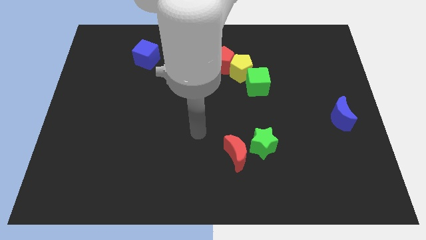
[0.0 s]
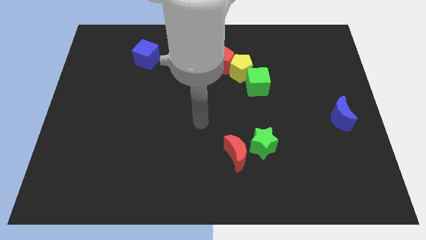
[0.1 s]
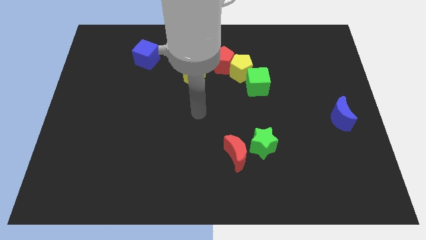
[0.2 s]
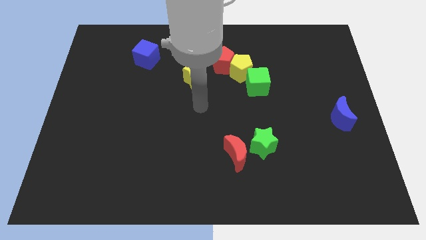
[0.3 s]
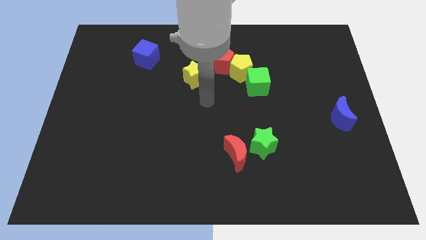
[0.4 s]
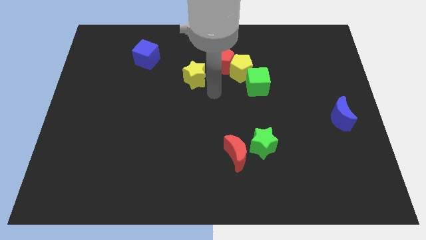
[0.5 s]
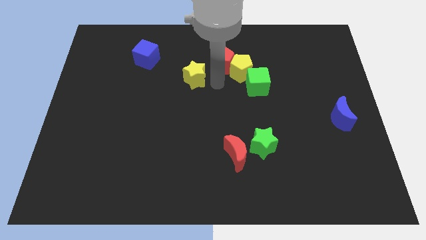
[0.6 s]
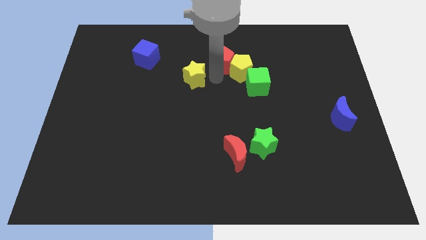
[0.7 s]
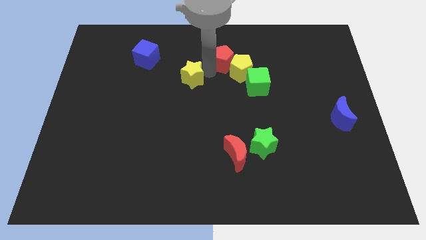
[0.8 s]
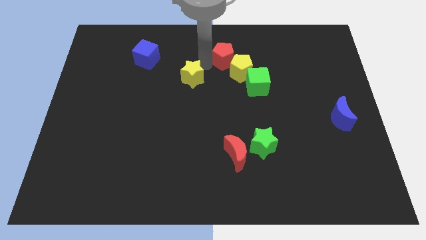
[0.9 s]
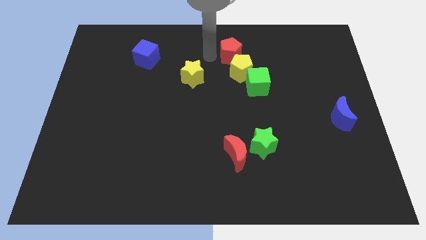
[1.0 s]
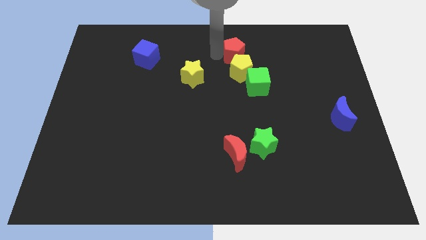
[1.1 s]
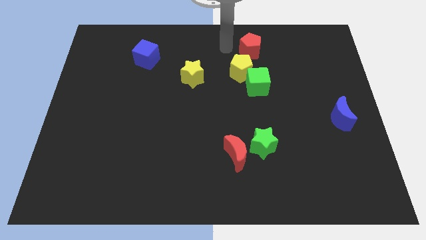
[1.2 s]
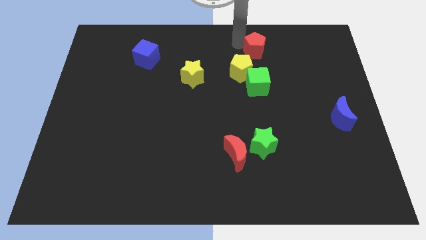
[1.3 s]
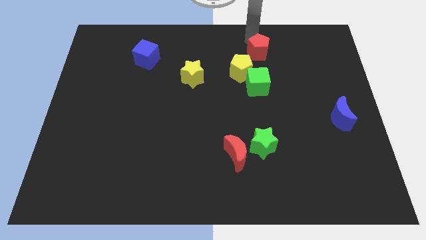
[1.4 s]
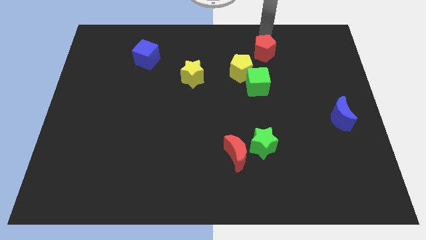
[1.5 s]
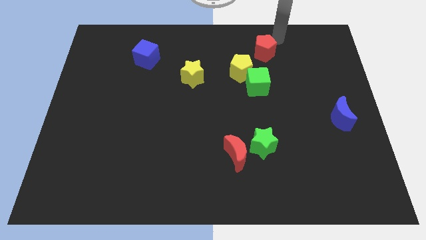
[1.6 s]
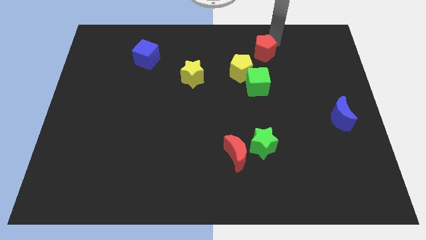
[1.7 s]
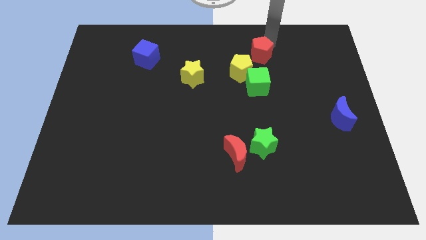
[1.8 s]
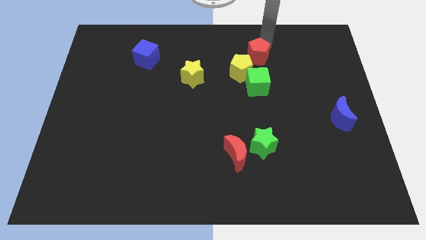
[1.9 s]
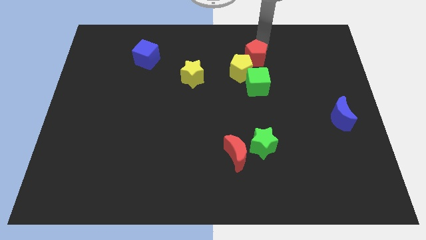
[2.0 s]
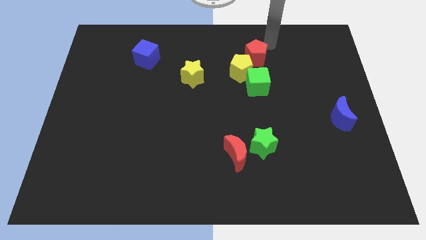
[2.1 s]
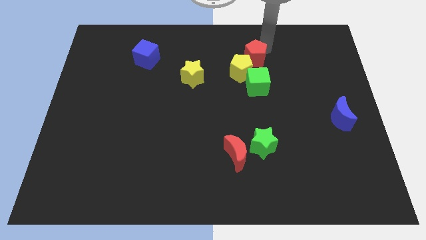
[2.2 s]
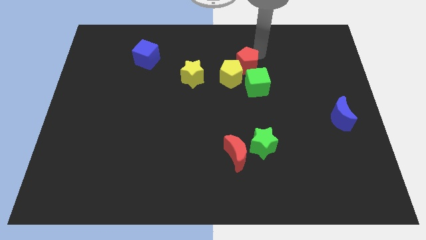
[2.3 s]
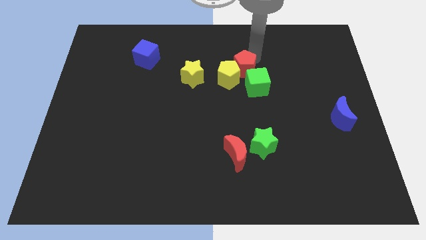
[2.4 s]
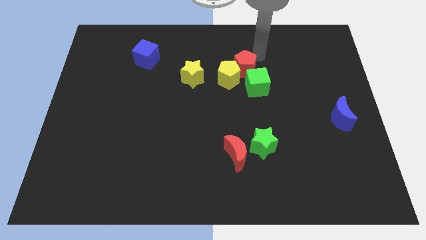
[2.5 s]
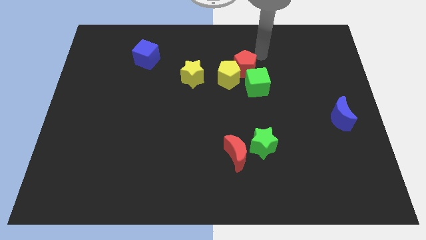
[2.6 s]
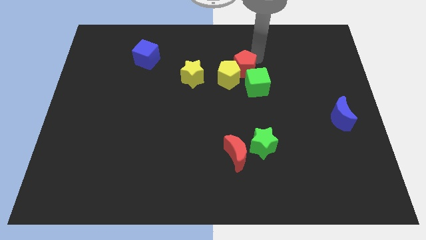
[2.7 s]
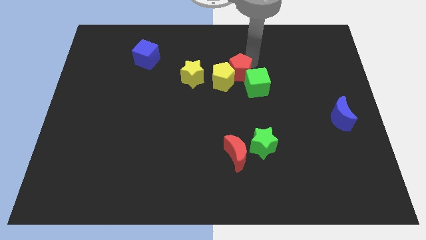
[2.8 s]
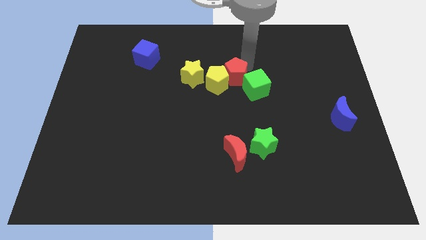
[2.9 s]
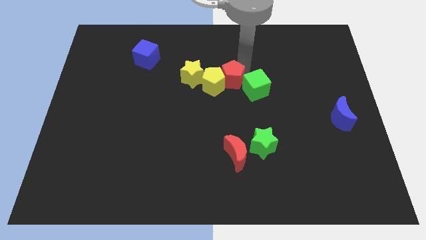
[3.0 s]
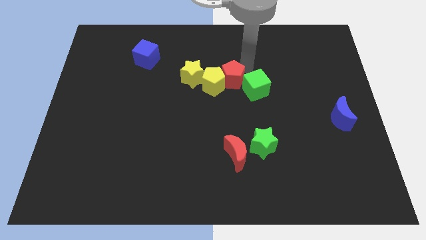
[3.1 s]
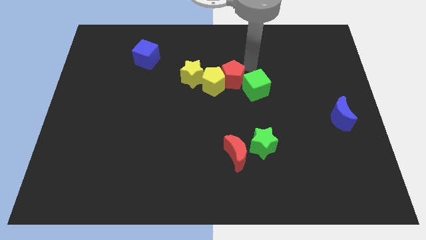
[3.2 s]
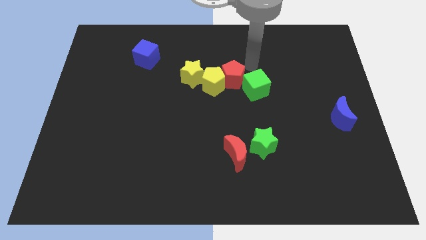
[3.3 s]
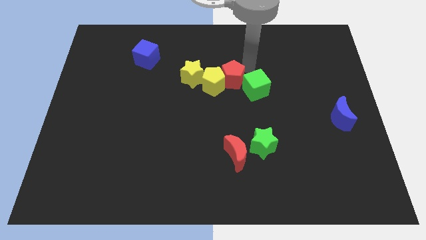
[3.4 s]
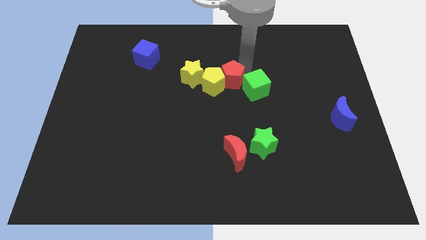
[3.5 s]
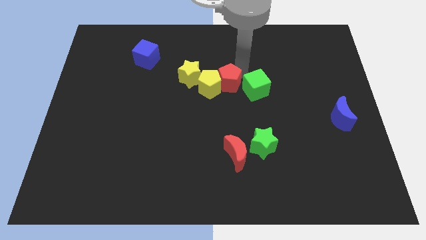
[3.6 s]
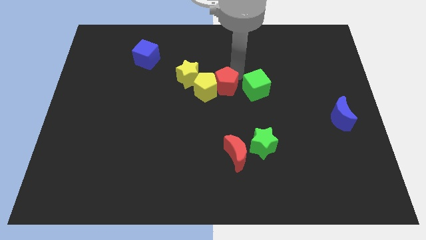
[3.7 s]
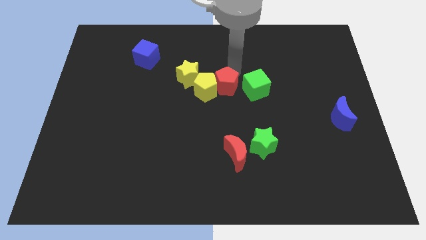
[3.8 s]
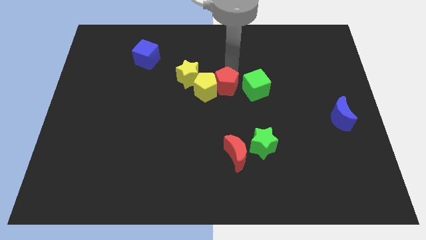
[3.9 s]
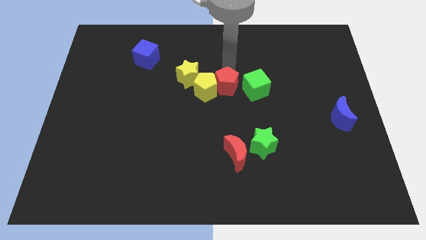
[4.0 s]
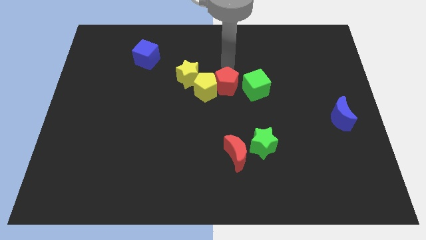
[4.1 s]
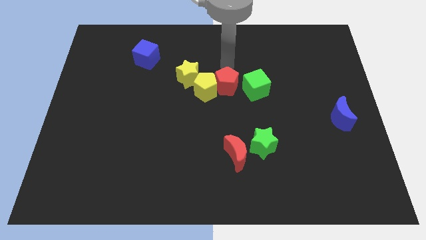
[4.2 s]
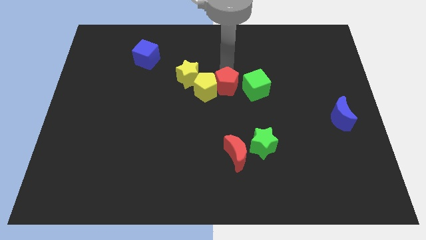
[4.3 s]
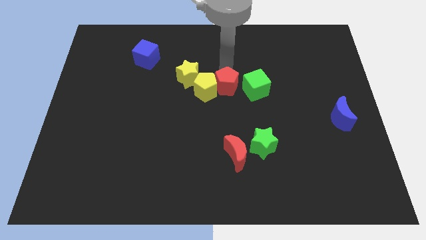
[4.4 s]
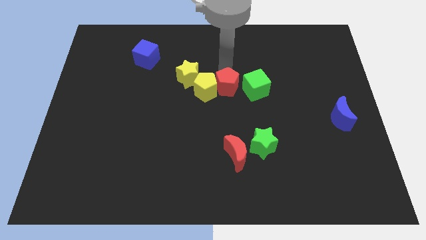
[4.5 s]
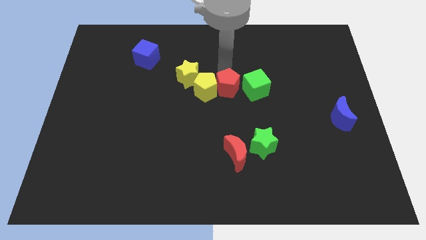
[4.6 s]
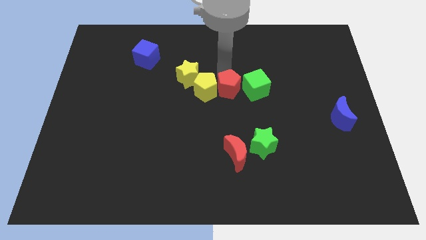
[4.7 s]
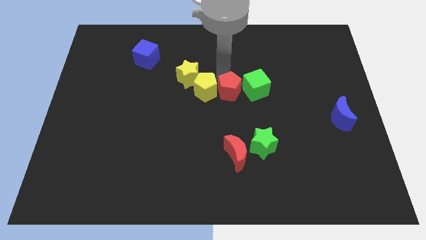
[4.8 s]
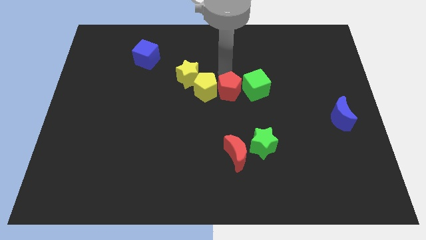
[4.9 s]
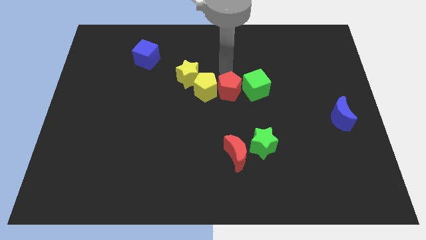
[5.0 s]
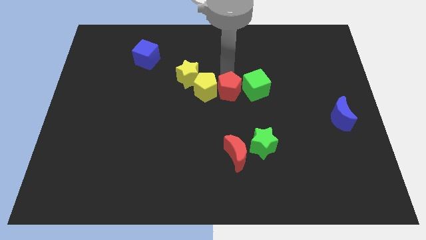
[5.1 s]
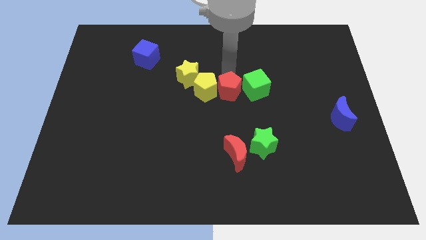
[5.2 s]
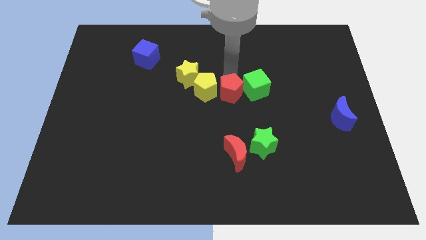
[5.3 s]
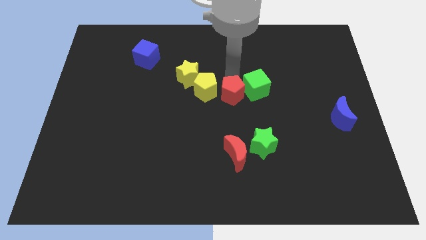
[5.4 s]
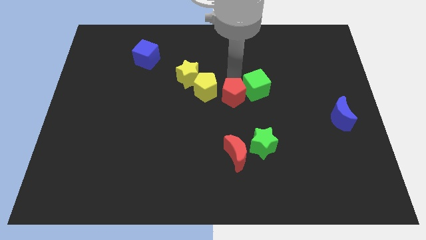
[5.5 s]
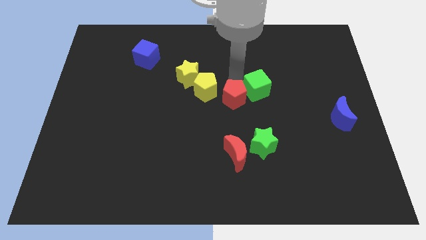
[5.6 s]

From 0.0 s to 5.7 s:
put the red pentagon above the red moon

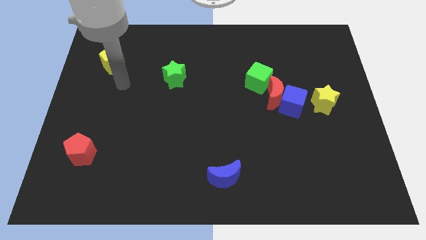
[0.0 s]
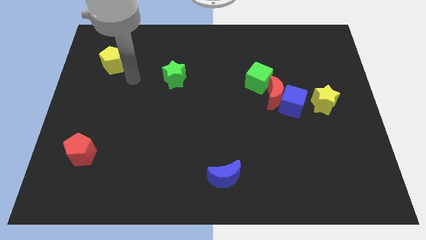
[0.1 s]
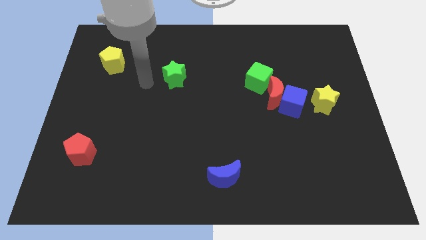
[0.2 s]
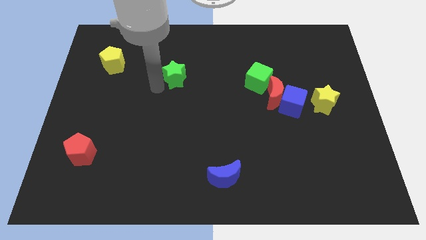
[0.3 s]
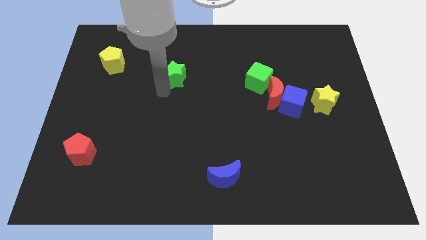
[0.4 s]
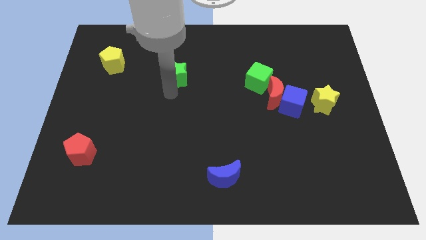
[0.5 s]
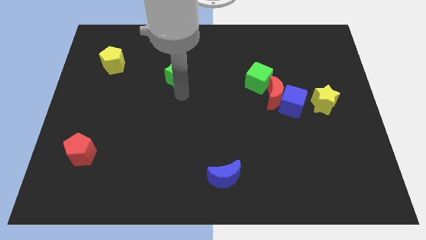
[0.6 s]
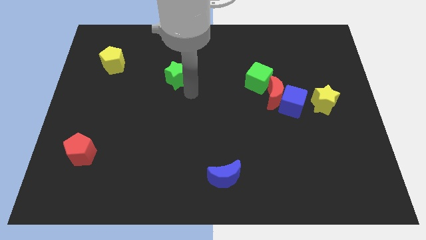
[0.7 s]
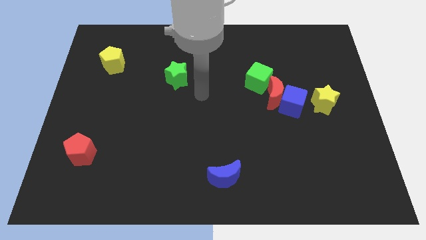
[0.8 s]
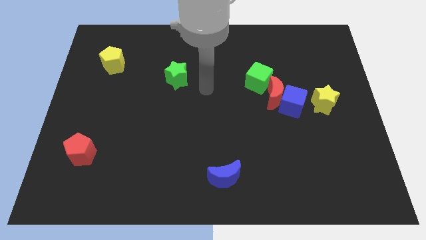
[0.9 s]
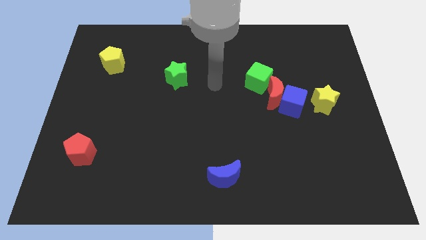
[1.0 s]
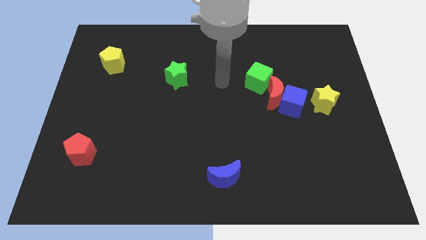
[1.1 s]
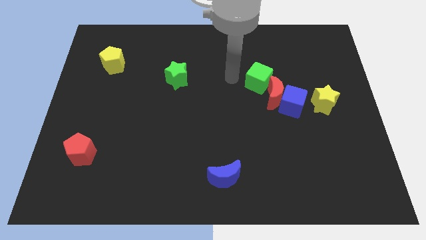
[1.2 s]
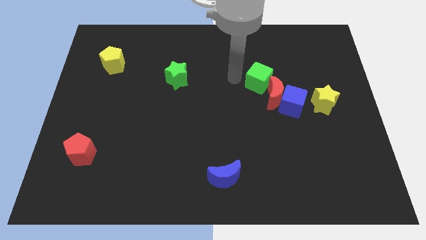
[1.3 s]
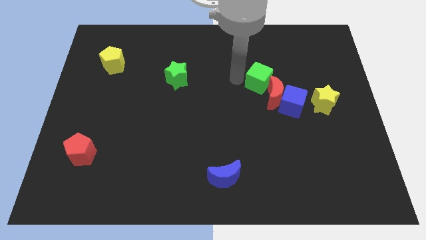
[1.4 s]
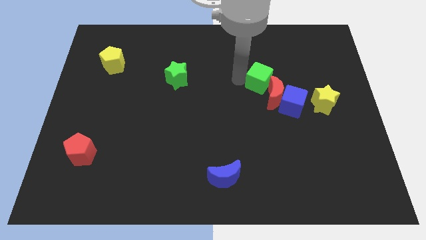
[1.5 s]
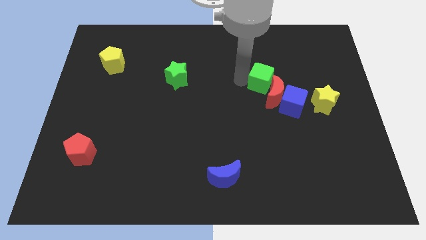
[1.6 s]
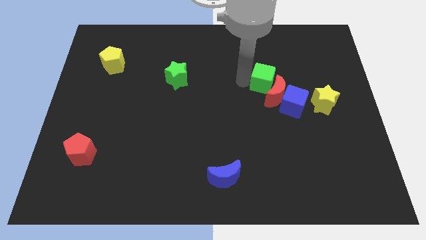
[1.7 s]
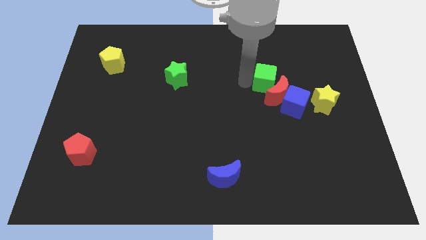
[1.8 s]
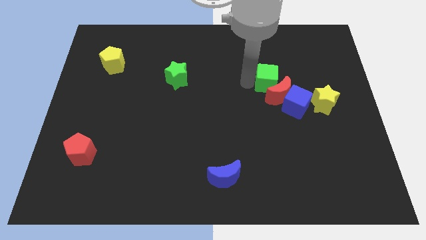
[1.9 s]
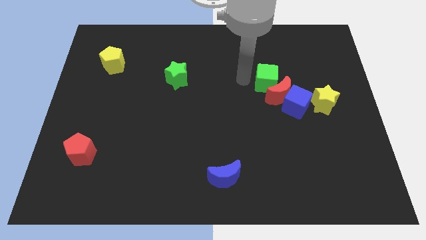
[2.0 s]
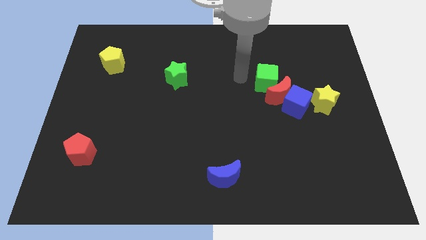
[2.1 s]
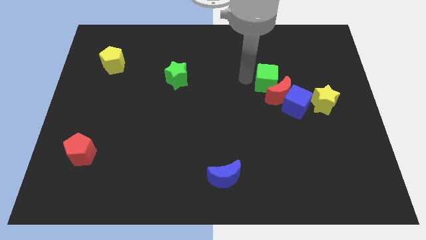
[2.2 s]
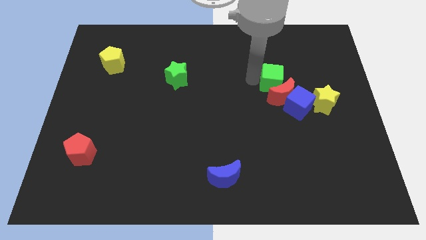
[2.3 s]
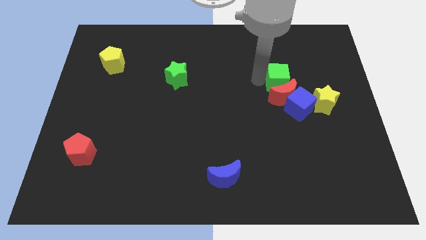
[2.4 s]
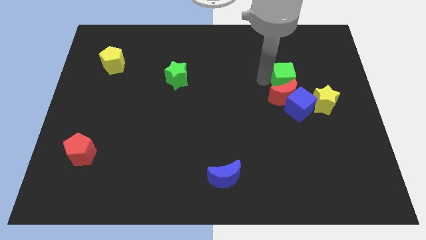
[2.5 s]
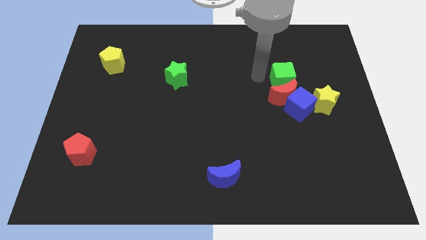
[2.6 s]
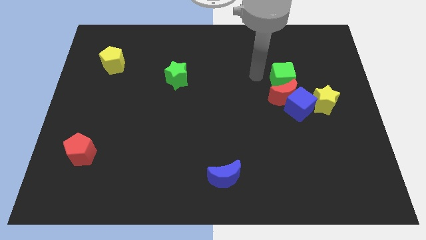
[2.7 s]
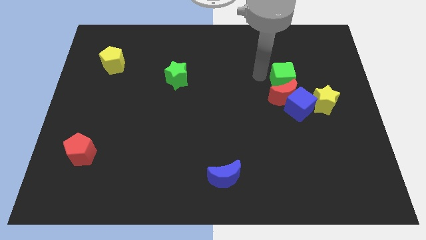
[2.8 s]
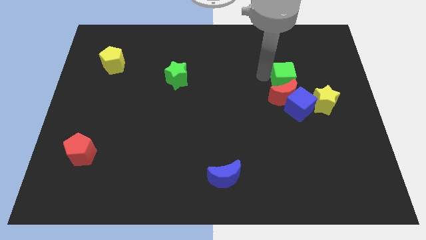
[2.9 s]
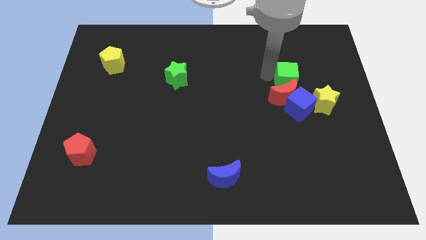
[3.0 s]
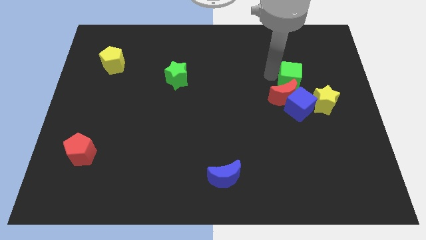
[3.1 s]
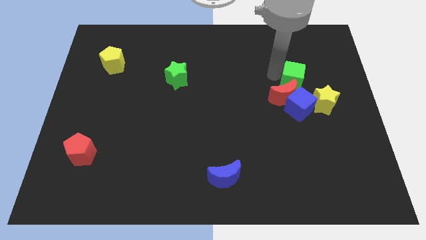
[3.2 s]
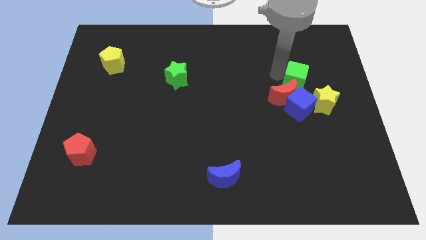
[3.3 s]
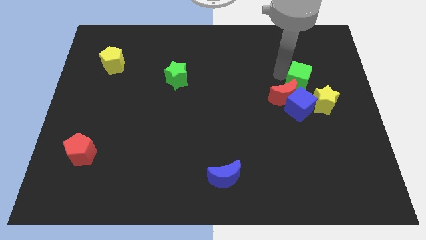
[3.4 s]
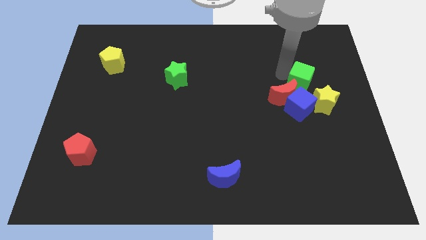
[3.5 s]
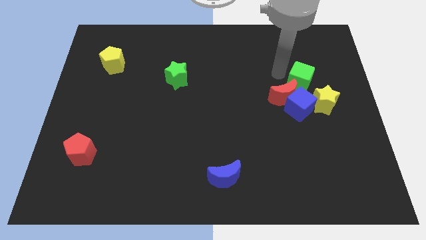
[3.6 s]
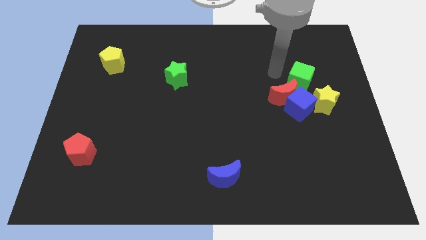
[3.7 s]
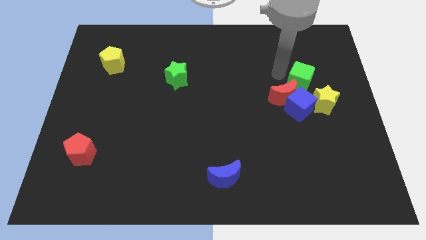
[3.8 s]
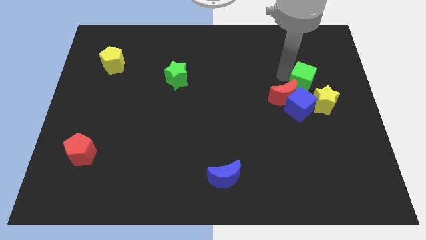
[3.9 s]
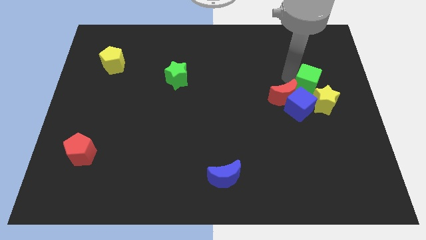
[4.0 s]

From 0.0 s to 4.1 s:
move the green cube to the right of the red moon
